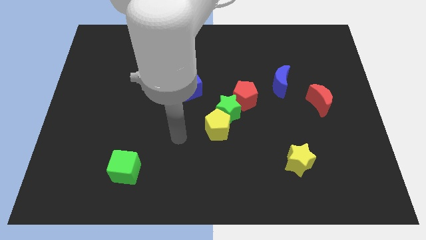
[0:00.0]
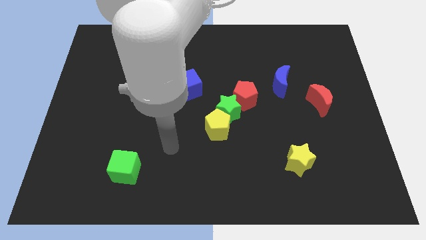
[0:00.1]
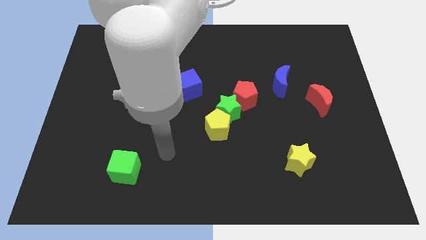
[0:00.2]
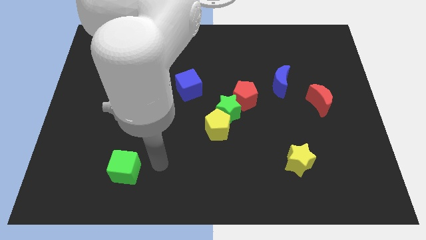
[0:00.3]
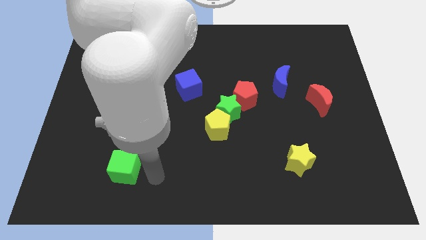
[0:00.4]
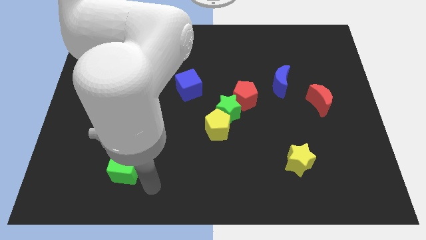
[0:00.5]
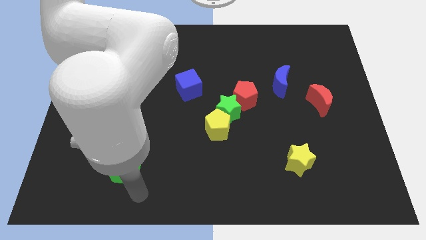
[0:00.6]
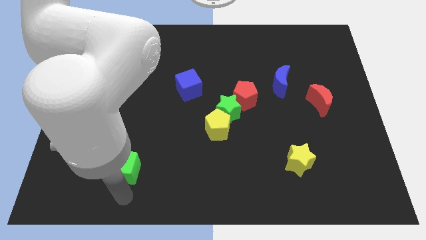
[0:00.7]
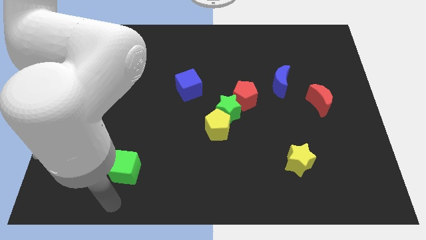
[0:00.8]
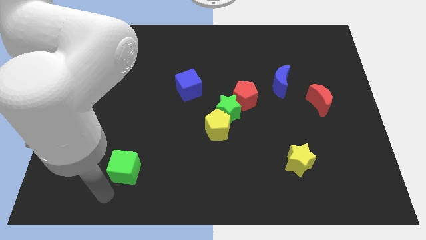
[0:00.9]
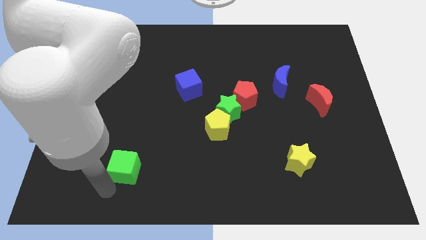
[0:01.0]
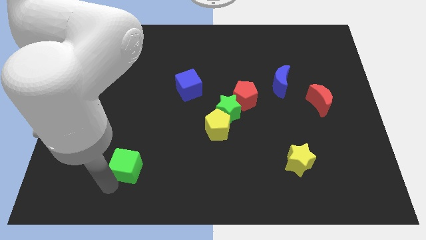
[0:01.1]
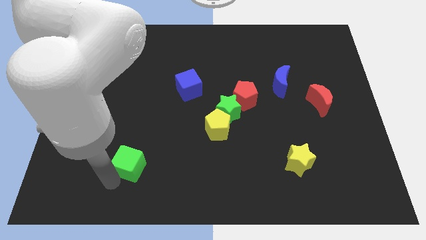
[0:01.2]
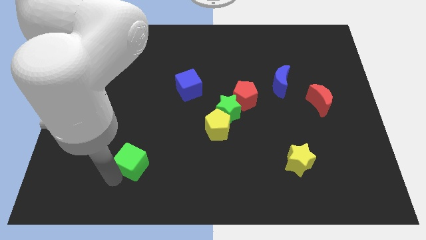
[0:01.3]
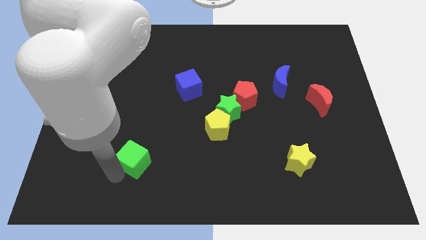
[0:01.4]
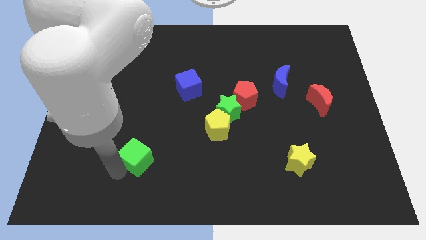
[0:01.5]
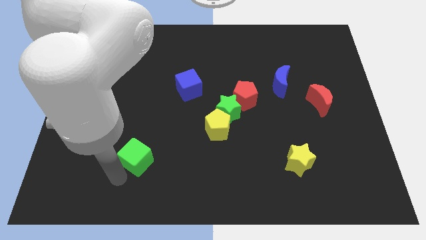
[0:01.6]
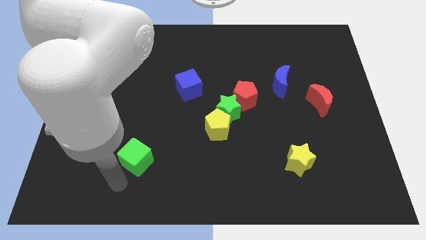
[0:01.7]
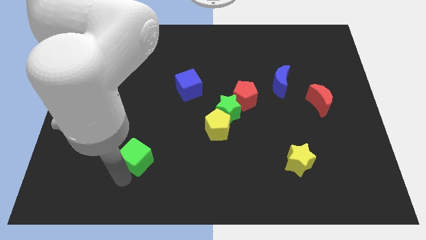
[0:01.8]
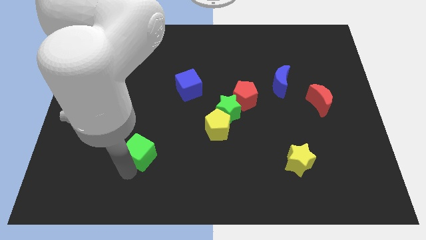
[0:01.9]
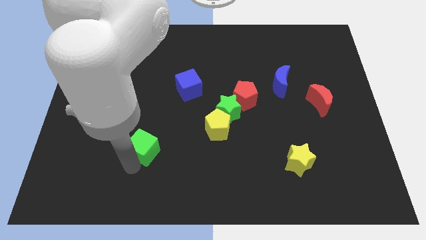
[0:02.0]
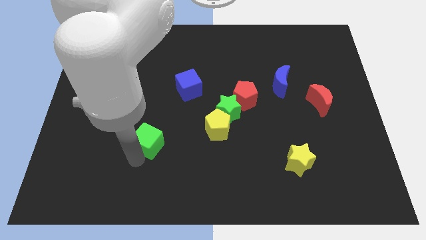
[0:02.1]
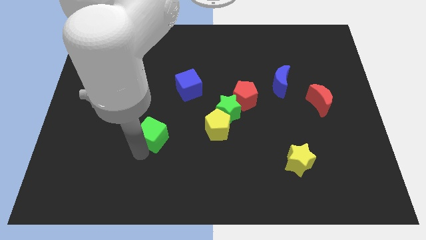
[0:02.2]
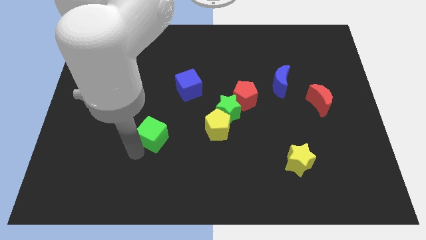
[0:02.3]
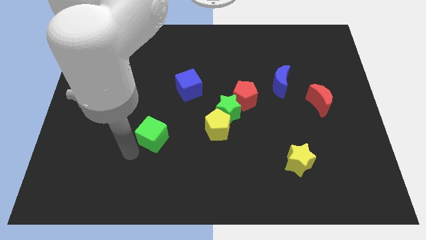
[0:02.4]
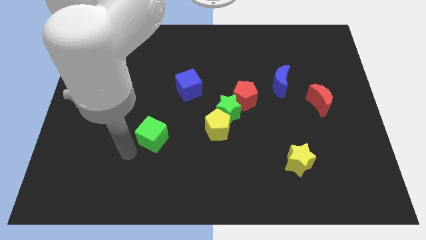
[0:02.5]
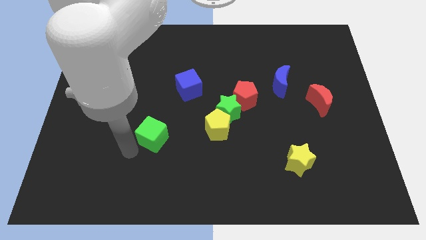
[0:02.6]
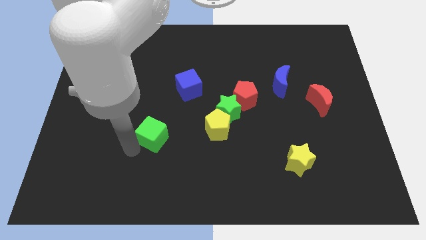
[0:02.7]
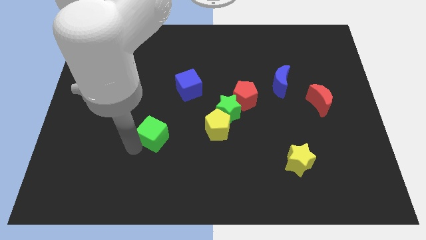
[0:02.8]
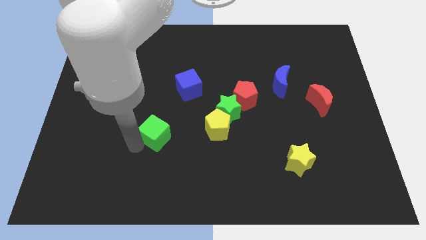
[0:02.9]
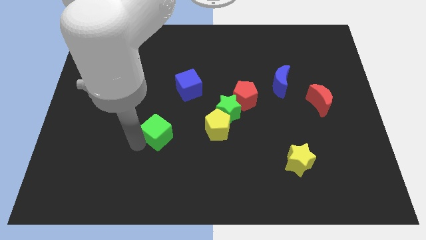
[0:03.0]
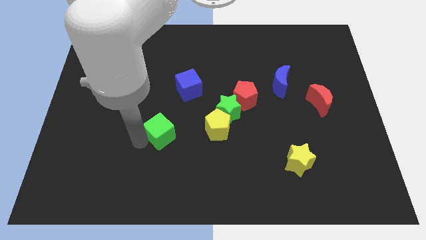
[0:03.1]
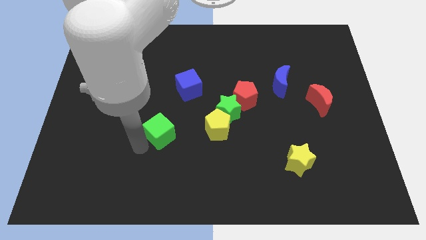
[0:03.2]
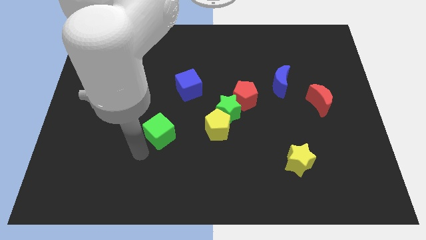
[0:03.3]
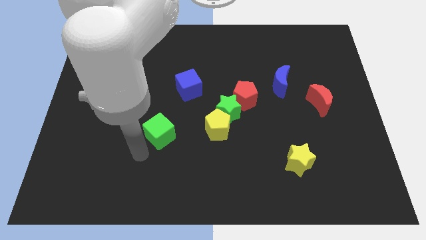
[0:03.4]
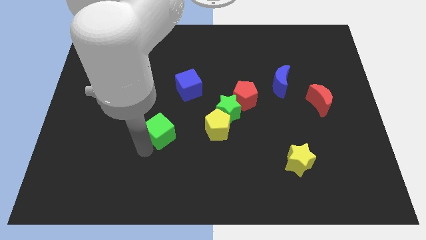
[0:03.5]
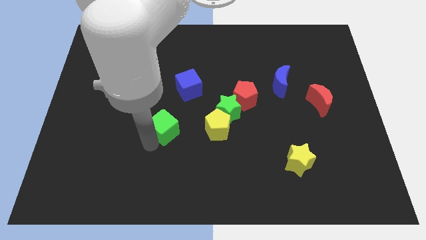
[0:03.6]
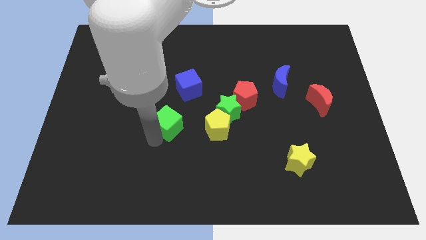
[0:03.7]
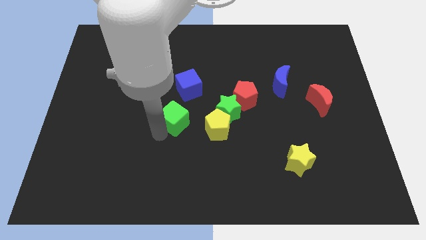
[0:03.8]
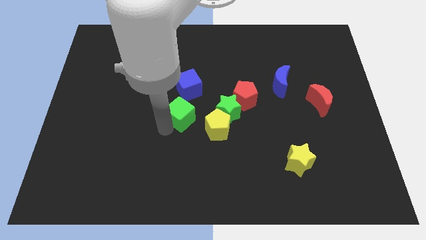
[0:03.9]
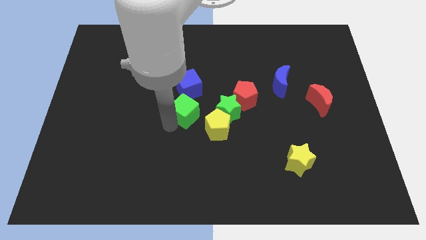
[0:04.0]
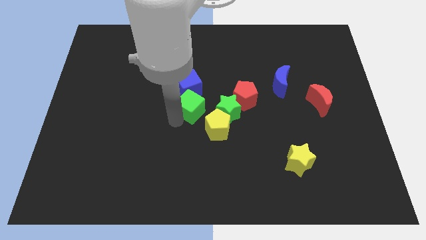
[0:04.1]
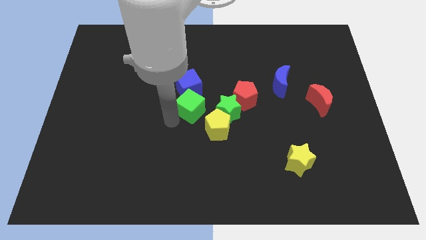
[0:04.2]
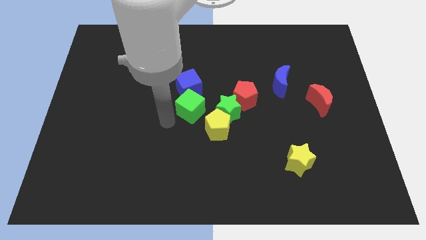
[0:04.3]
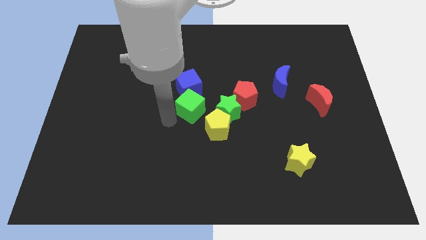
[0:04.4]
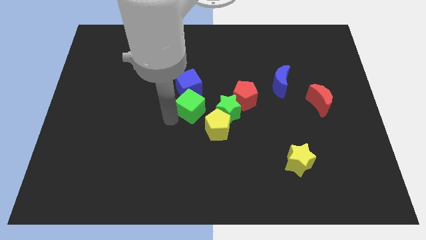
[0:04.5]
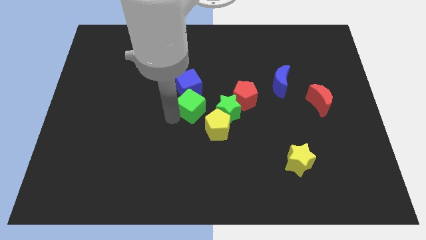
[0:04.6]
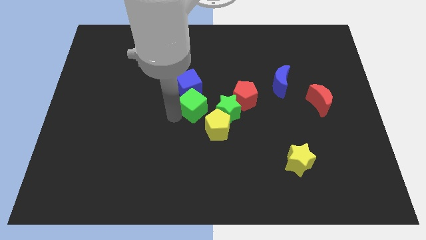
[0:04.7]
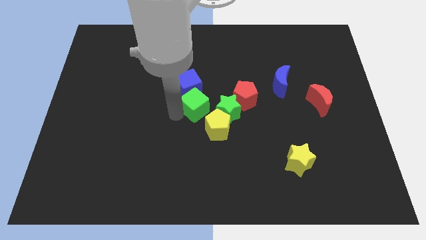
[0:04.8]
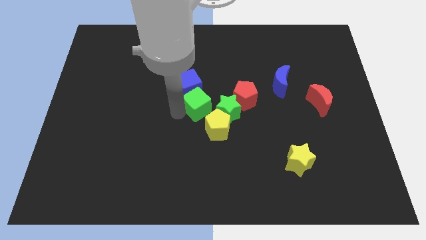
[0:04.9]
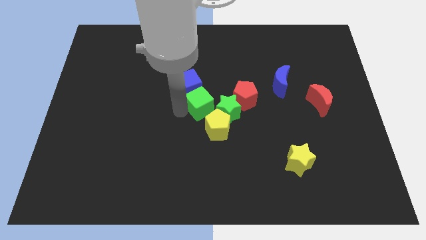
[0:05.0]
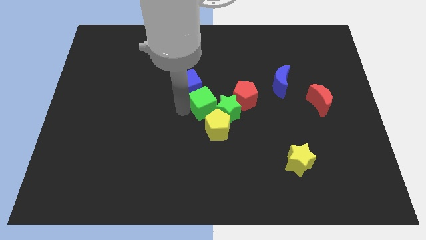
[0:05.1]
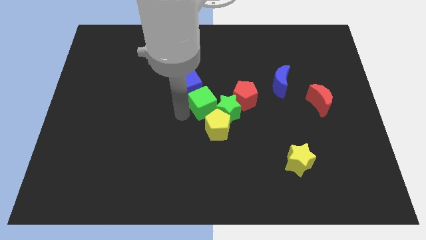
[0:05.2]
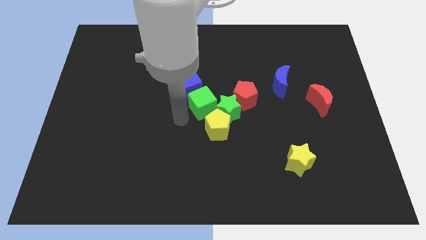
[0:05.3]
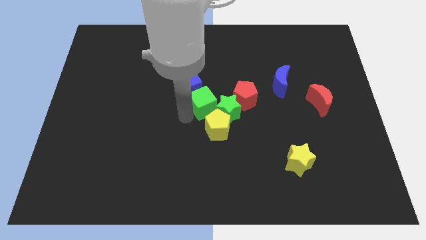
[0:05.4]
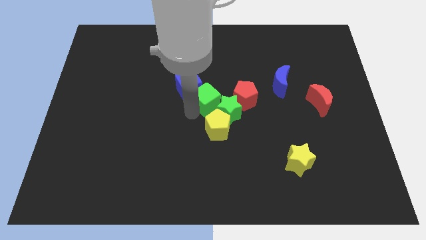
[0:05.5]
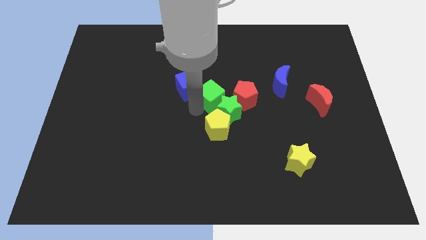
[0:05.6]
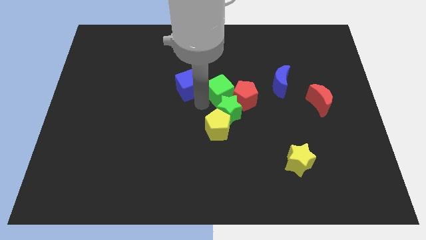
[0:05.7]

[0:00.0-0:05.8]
slide the green cube towards the red pentagon

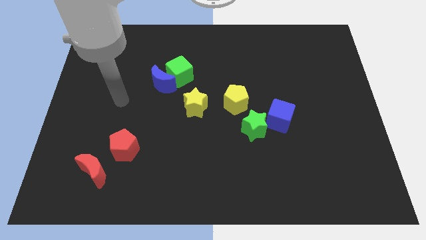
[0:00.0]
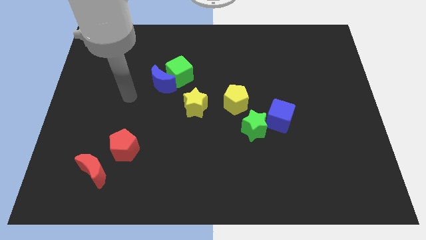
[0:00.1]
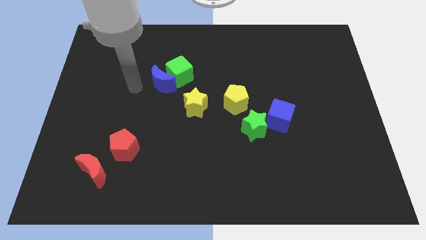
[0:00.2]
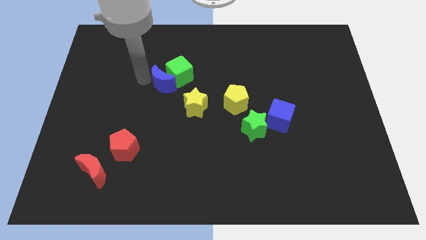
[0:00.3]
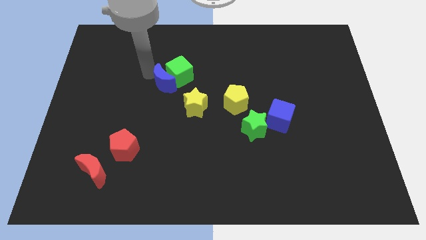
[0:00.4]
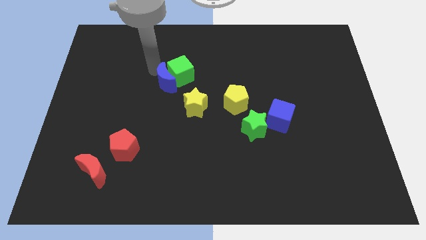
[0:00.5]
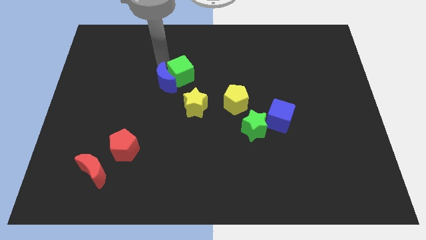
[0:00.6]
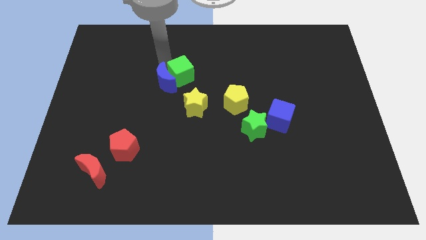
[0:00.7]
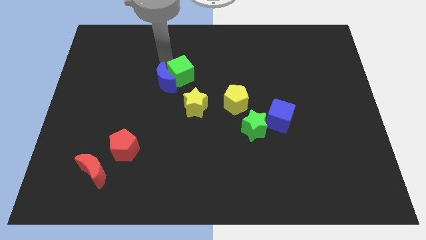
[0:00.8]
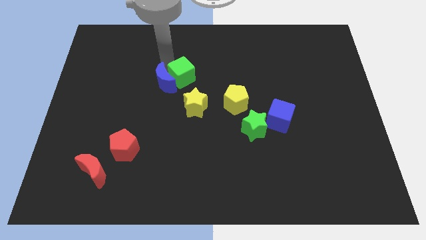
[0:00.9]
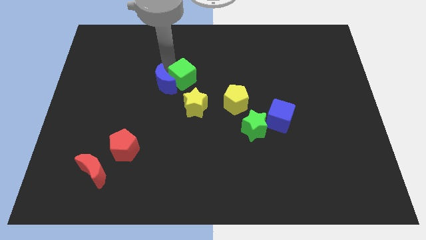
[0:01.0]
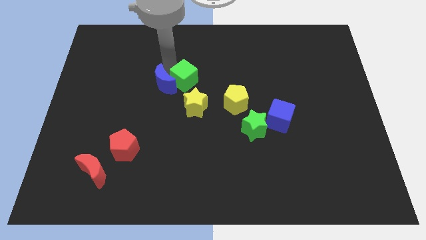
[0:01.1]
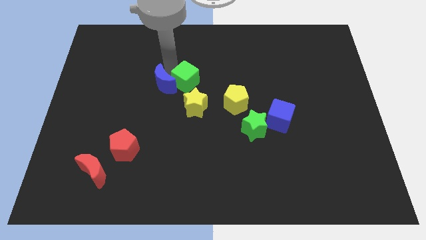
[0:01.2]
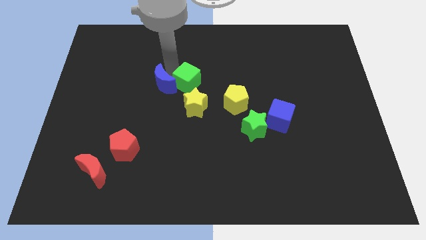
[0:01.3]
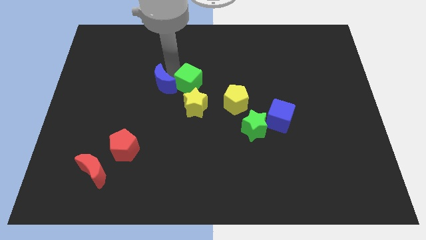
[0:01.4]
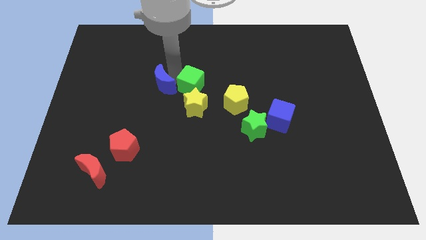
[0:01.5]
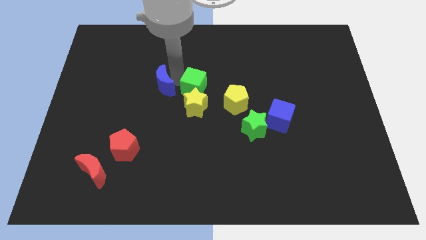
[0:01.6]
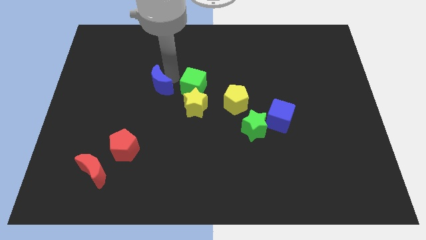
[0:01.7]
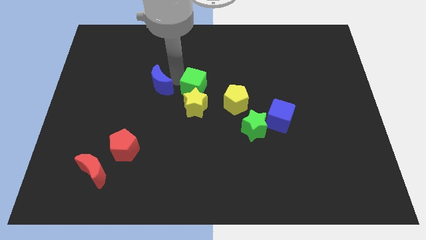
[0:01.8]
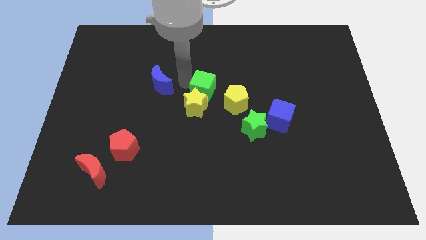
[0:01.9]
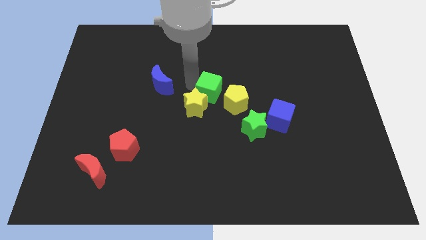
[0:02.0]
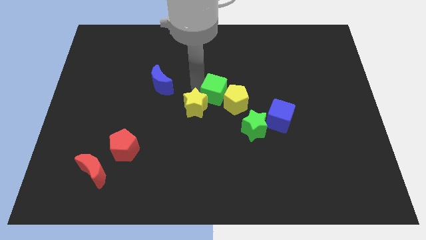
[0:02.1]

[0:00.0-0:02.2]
push the green cube next to the yellow pentagon
